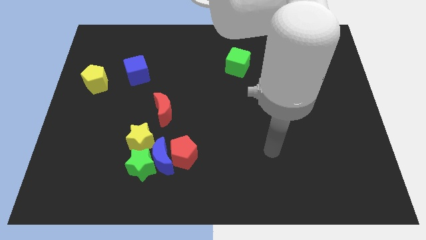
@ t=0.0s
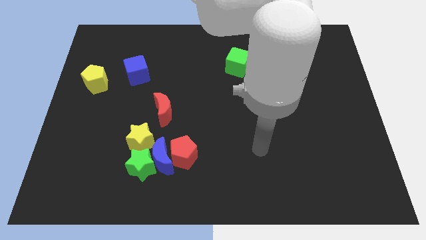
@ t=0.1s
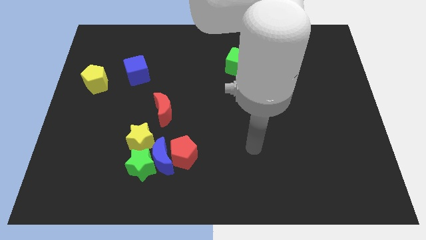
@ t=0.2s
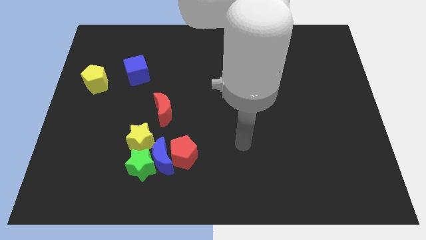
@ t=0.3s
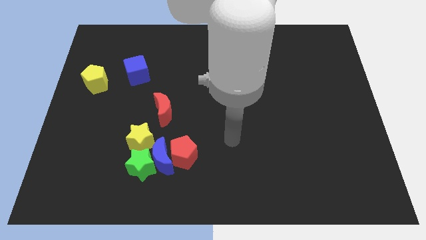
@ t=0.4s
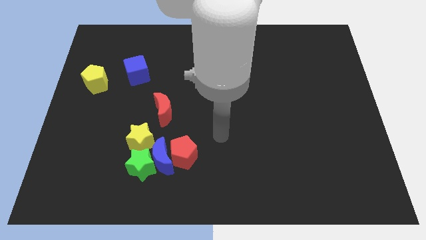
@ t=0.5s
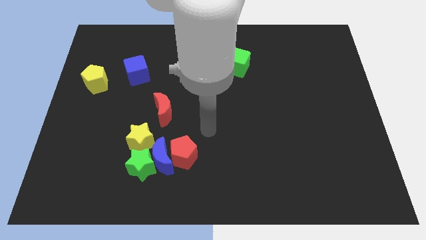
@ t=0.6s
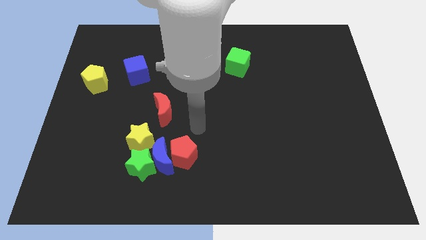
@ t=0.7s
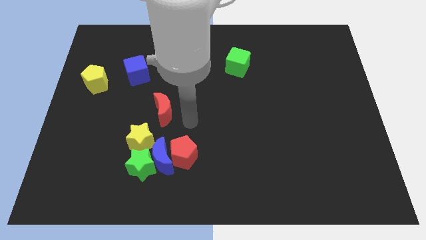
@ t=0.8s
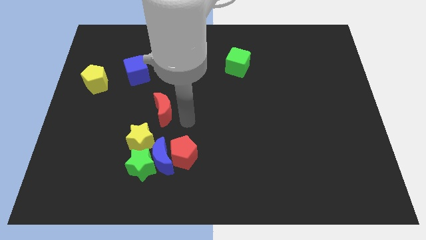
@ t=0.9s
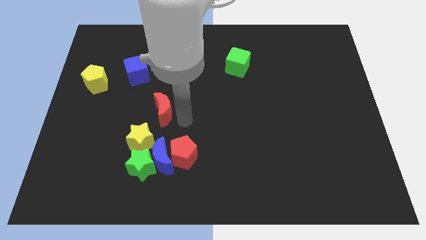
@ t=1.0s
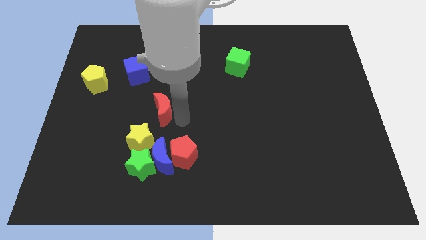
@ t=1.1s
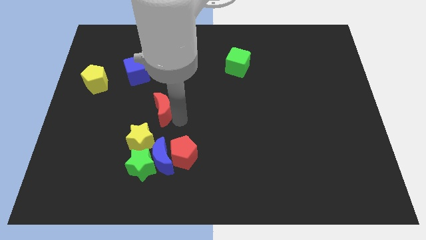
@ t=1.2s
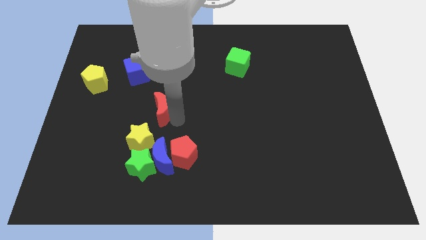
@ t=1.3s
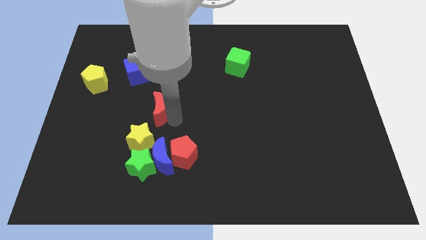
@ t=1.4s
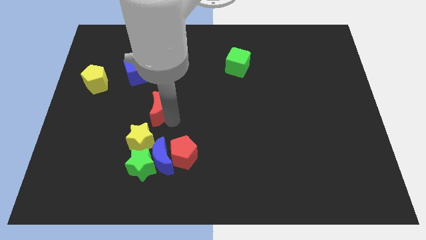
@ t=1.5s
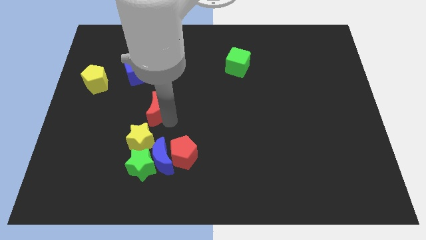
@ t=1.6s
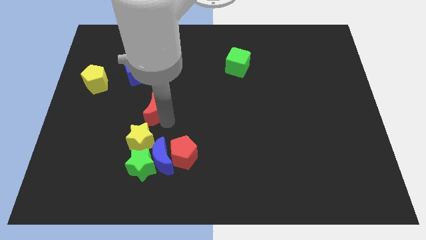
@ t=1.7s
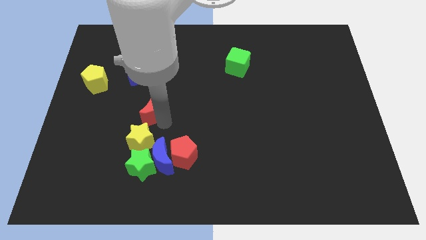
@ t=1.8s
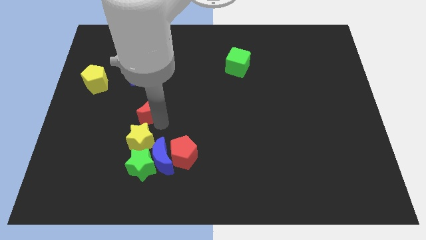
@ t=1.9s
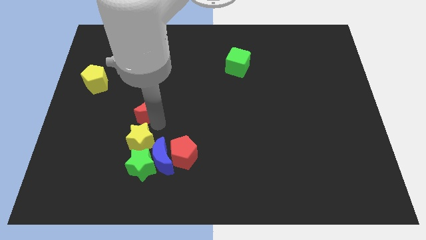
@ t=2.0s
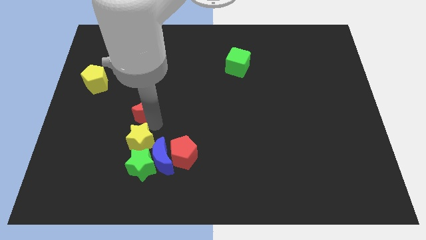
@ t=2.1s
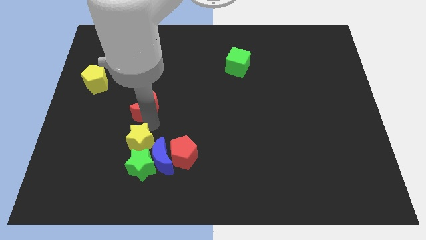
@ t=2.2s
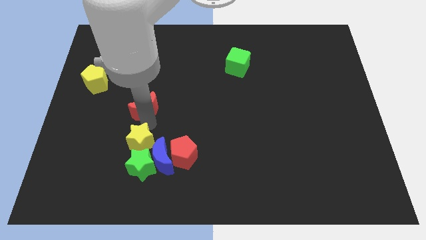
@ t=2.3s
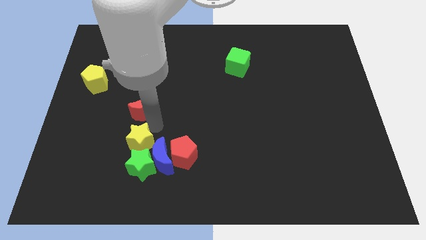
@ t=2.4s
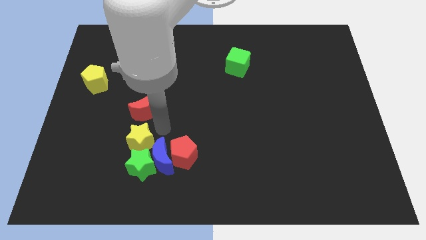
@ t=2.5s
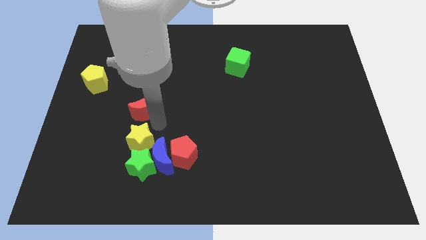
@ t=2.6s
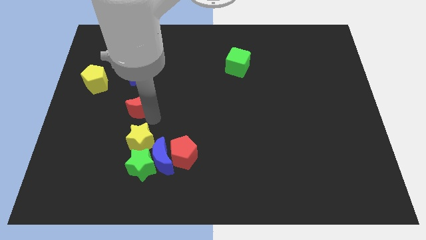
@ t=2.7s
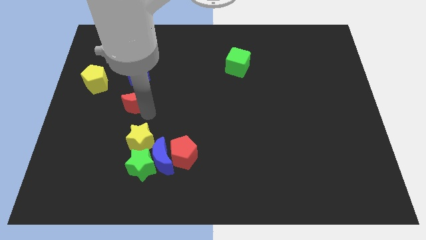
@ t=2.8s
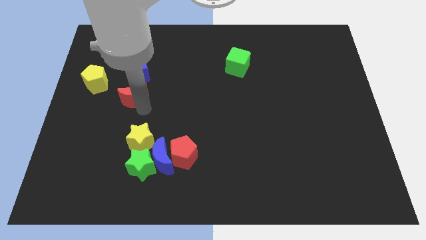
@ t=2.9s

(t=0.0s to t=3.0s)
push the red moon a little upwards and then left

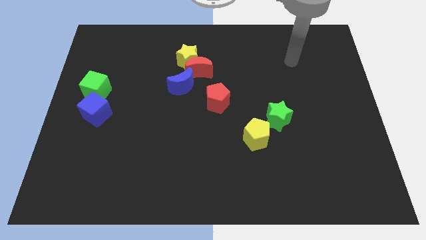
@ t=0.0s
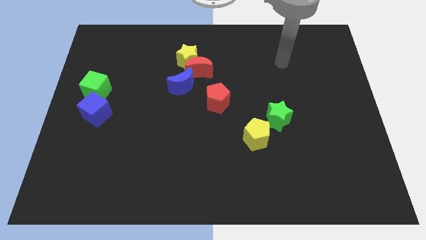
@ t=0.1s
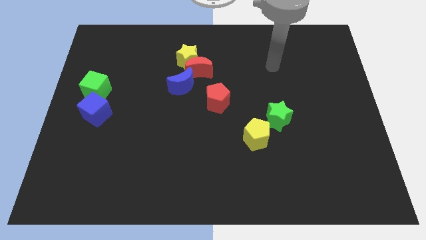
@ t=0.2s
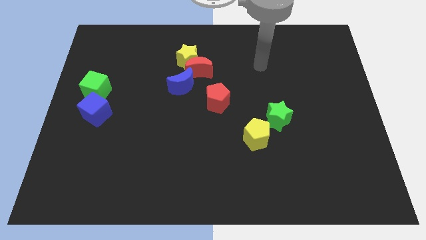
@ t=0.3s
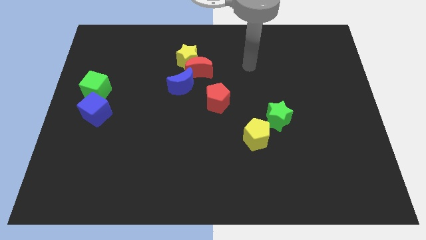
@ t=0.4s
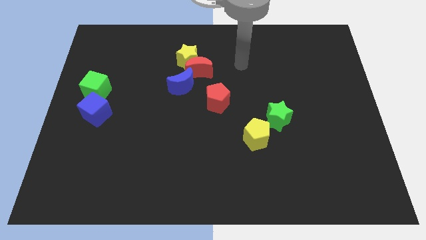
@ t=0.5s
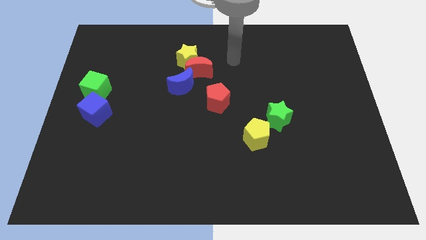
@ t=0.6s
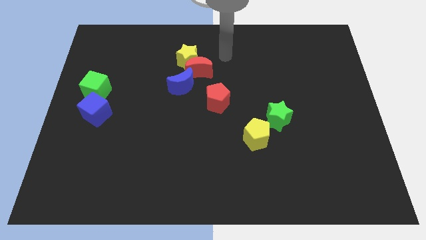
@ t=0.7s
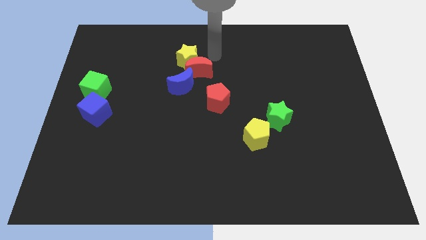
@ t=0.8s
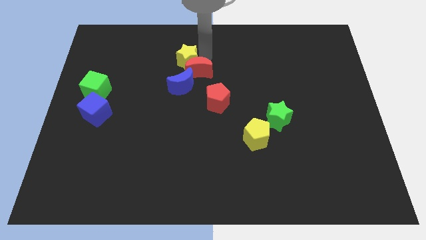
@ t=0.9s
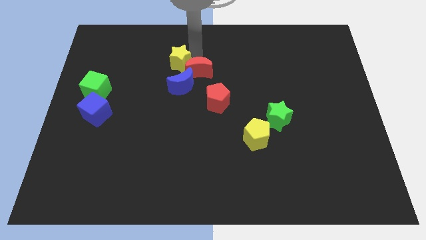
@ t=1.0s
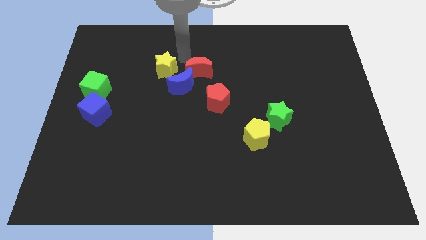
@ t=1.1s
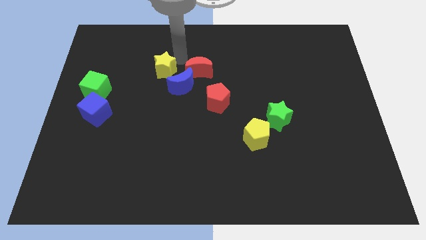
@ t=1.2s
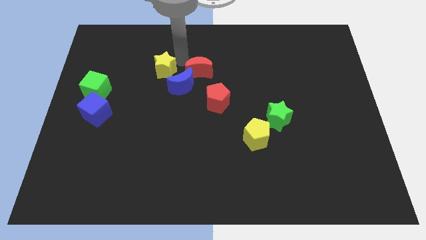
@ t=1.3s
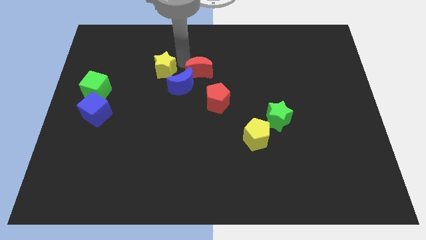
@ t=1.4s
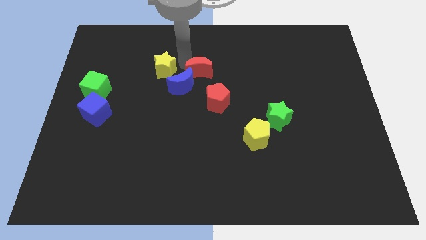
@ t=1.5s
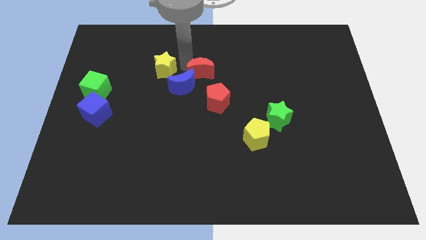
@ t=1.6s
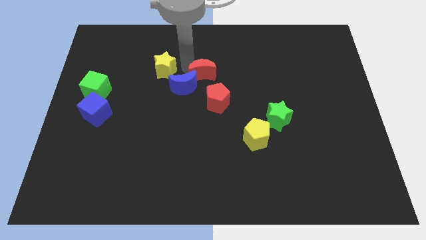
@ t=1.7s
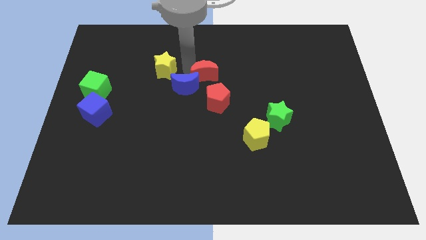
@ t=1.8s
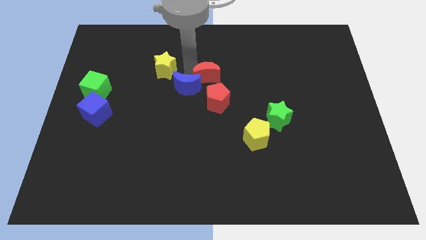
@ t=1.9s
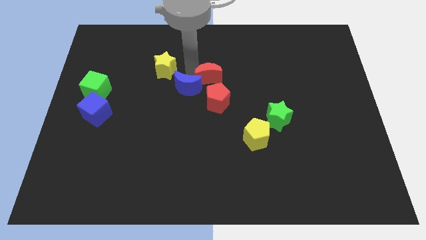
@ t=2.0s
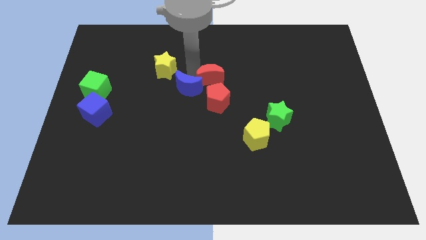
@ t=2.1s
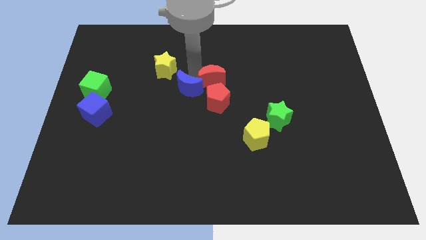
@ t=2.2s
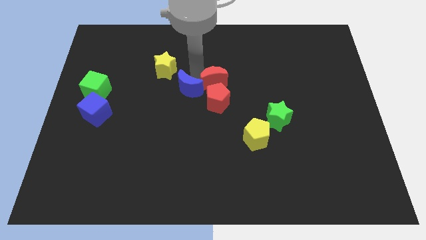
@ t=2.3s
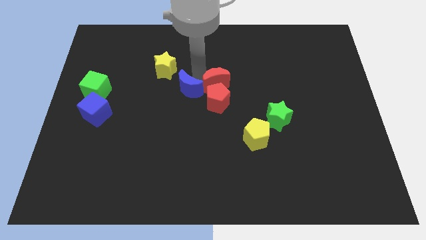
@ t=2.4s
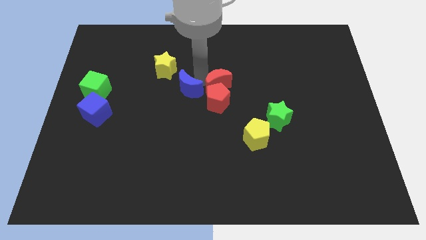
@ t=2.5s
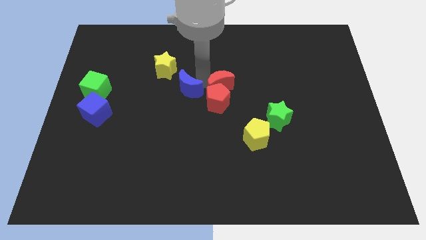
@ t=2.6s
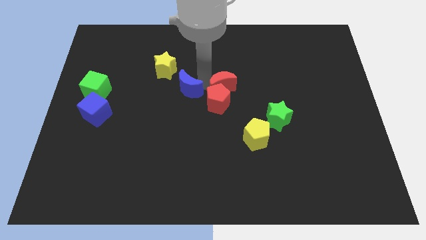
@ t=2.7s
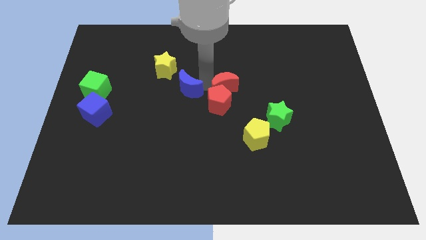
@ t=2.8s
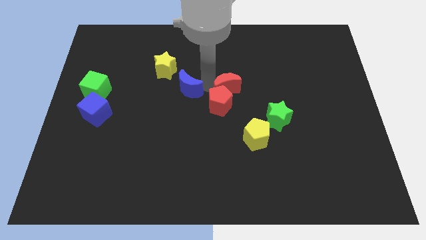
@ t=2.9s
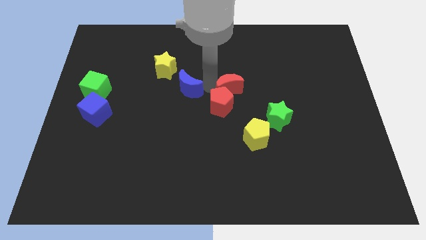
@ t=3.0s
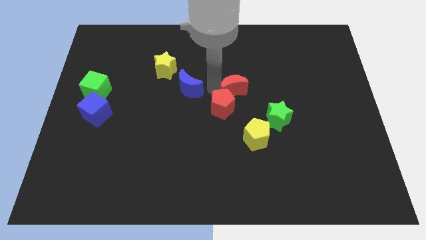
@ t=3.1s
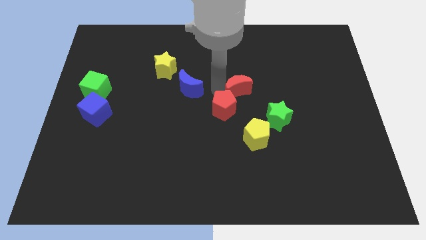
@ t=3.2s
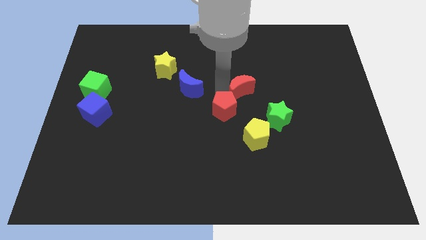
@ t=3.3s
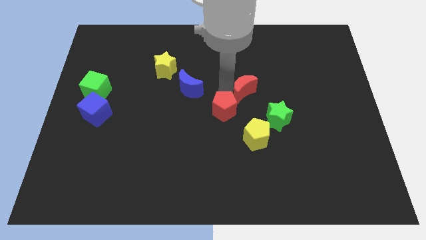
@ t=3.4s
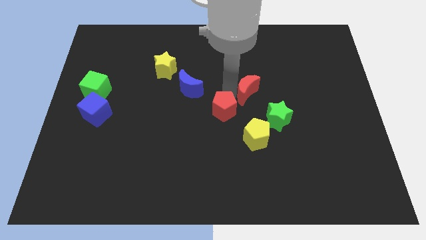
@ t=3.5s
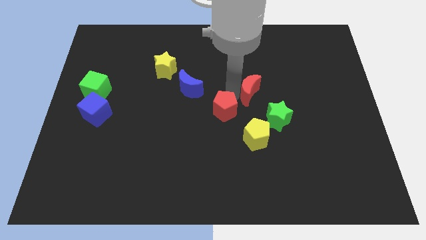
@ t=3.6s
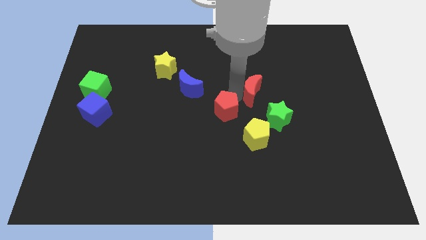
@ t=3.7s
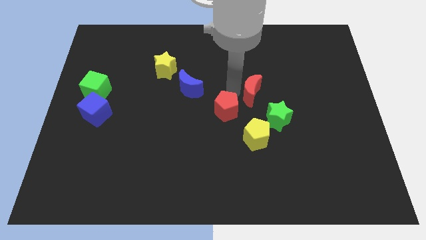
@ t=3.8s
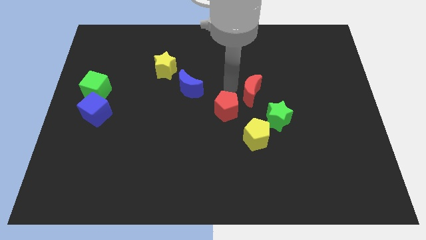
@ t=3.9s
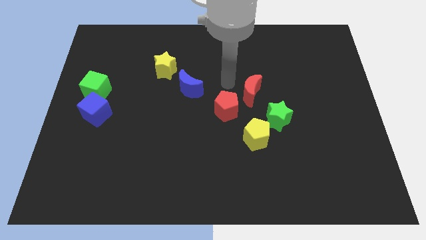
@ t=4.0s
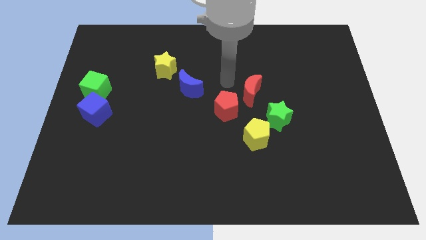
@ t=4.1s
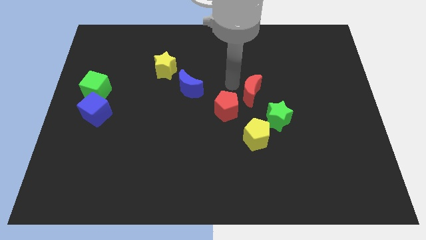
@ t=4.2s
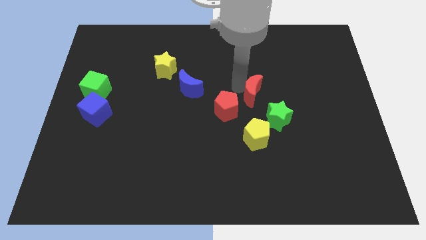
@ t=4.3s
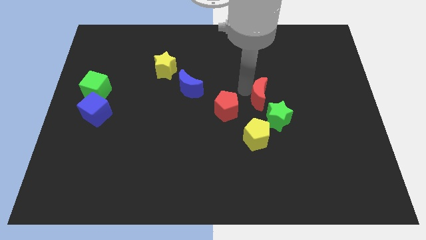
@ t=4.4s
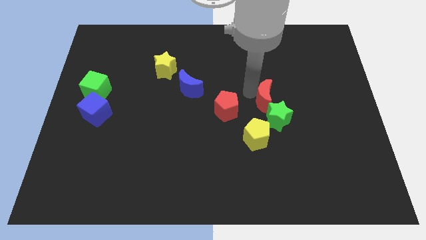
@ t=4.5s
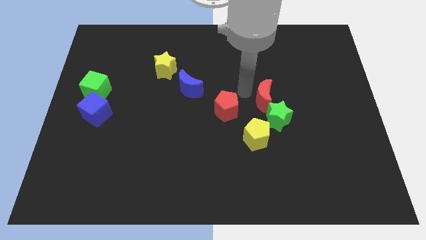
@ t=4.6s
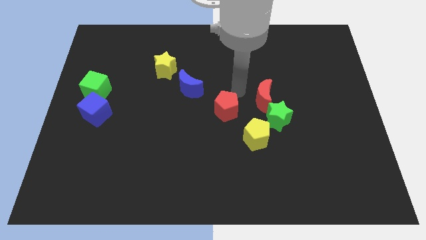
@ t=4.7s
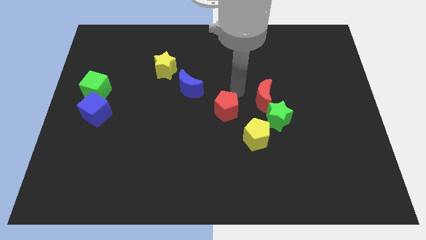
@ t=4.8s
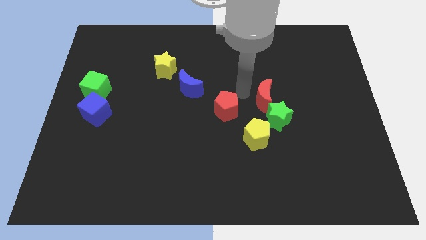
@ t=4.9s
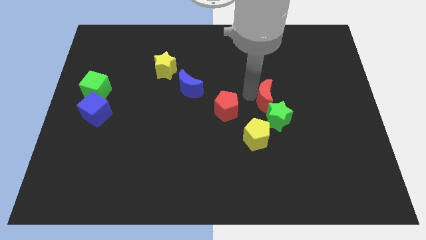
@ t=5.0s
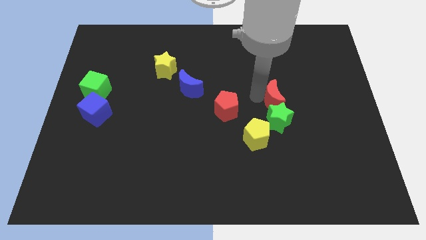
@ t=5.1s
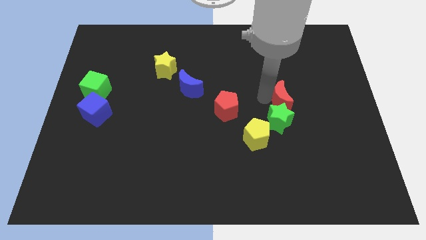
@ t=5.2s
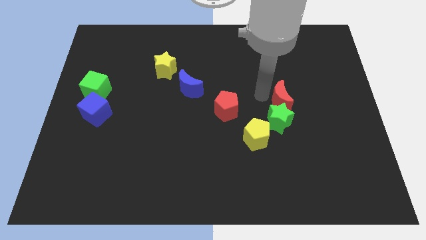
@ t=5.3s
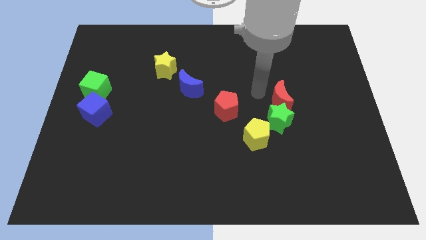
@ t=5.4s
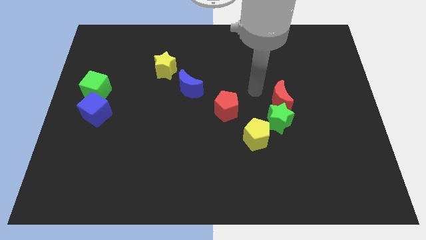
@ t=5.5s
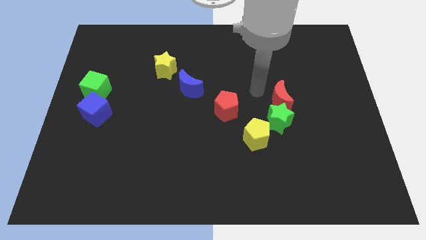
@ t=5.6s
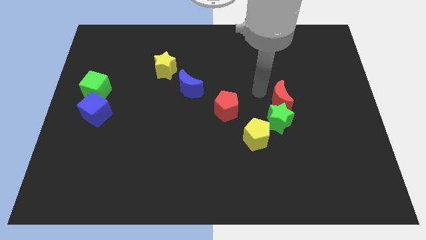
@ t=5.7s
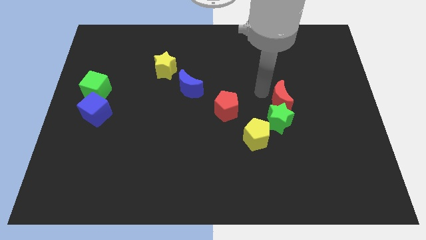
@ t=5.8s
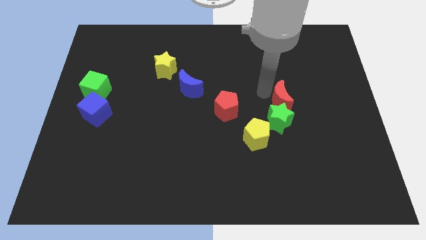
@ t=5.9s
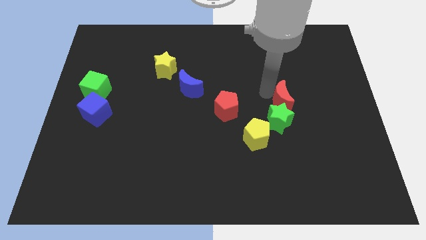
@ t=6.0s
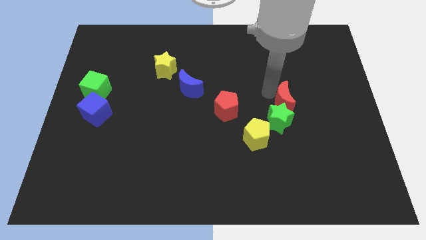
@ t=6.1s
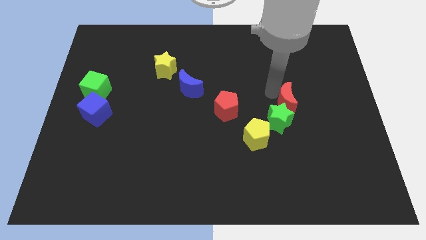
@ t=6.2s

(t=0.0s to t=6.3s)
slide the red moon downwards and right diagonally
